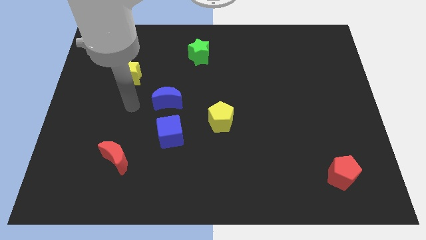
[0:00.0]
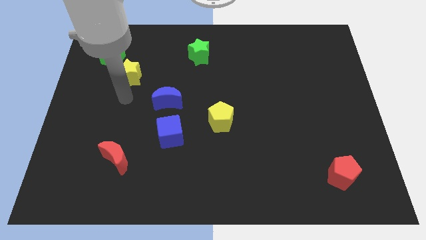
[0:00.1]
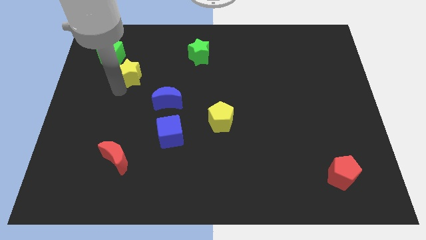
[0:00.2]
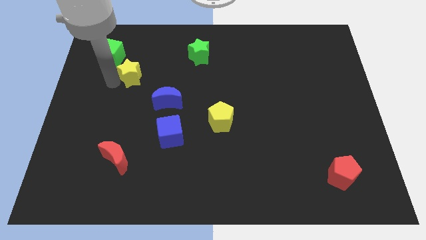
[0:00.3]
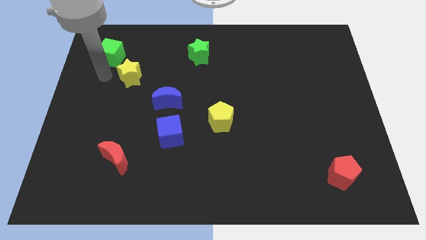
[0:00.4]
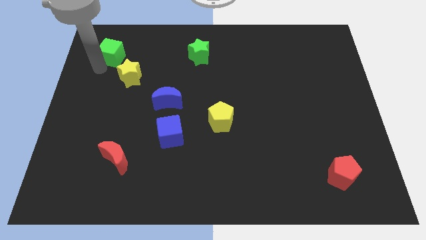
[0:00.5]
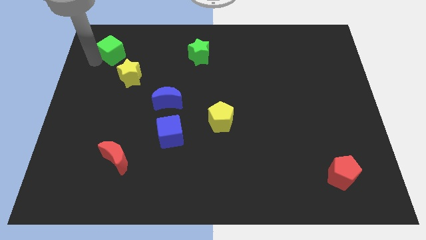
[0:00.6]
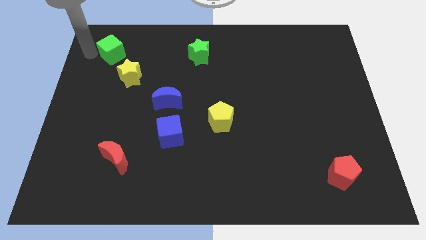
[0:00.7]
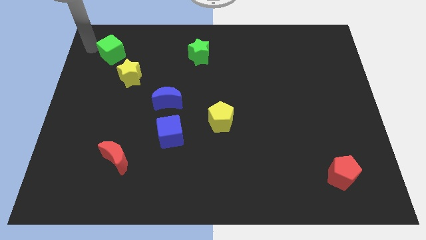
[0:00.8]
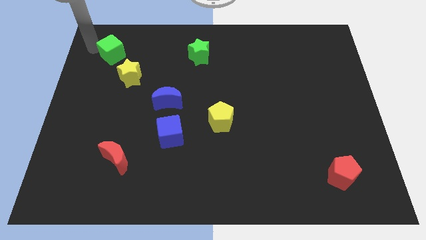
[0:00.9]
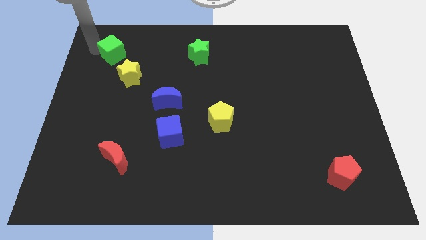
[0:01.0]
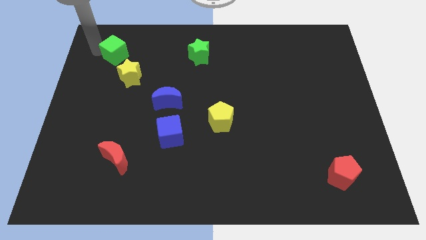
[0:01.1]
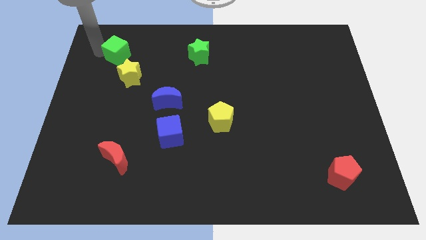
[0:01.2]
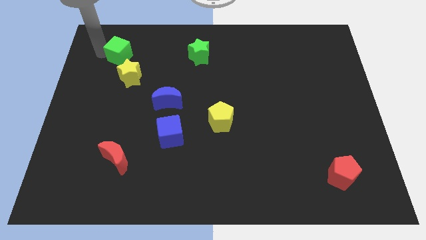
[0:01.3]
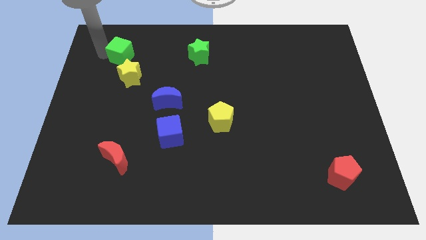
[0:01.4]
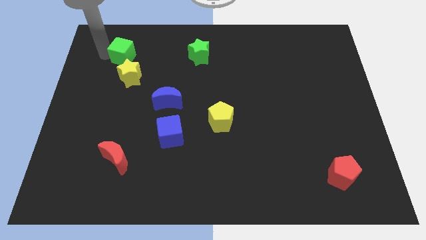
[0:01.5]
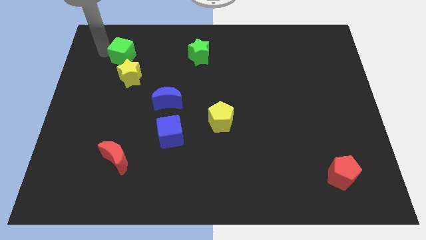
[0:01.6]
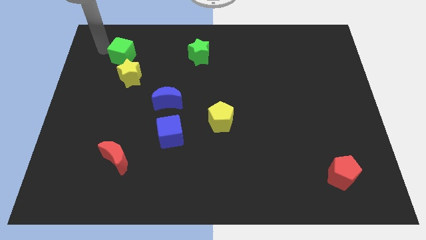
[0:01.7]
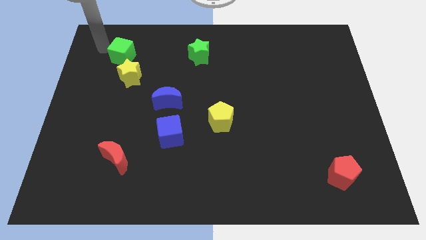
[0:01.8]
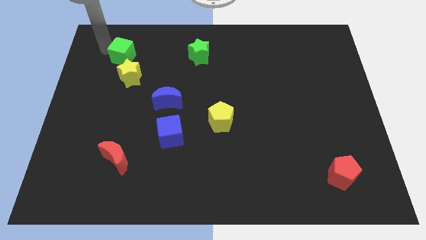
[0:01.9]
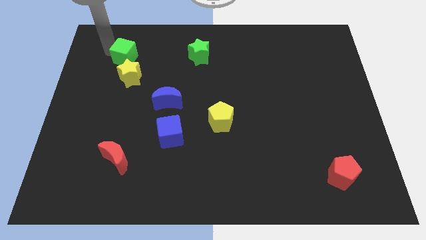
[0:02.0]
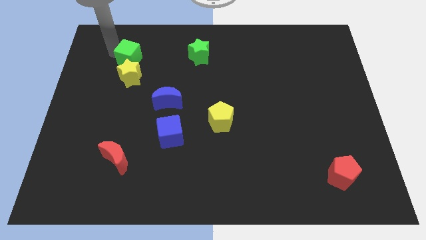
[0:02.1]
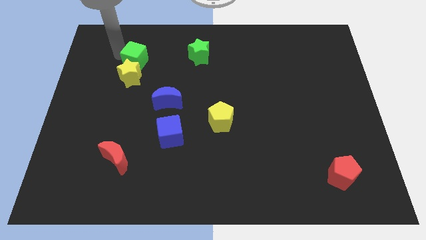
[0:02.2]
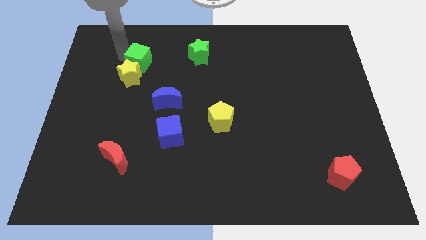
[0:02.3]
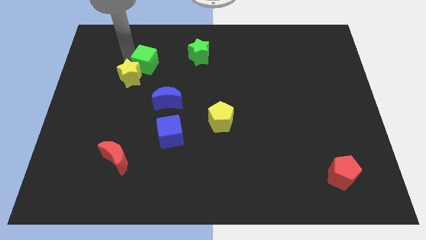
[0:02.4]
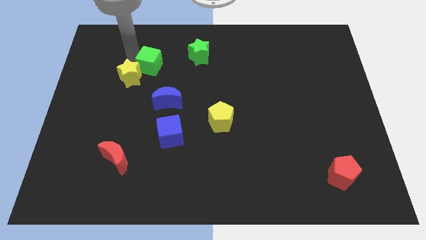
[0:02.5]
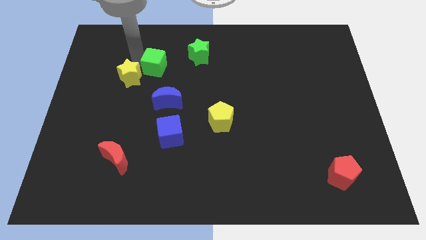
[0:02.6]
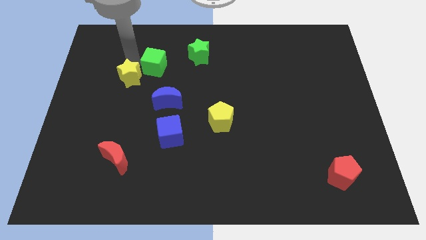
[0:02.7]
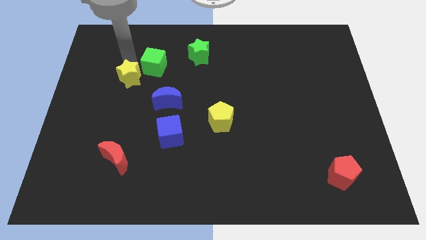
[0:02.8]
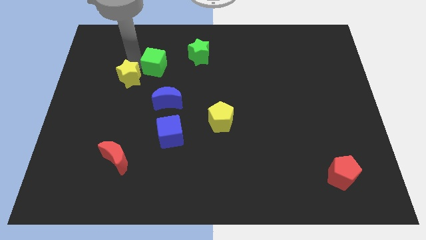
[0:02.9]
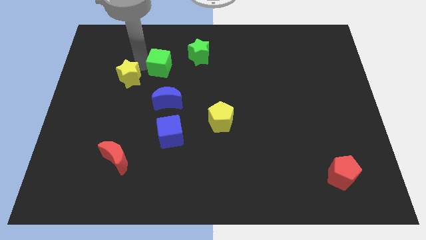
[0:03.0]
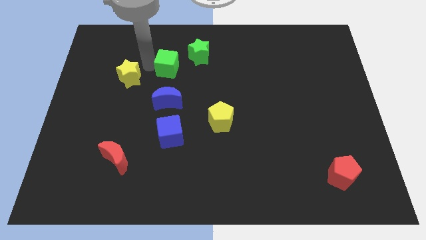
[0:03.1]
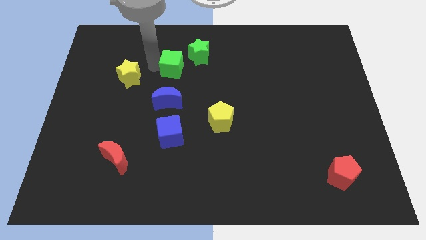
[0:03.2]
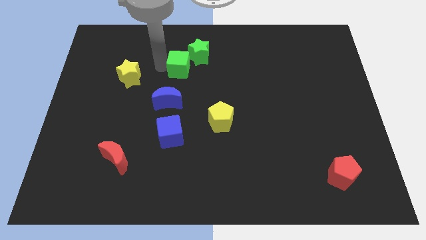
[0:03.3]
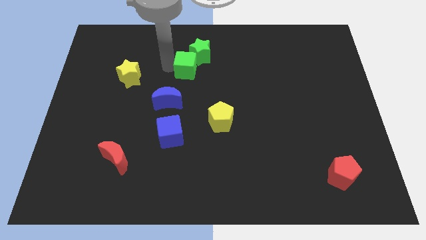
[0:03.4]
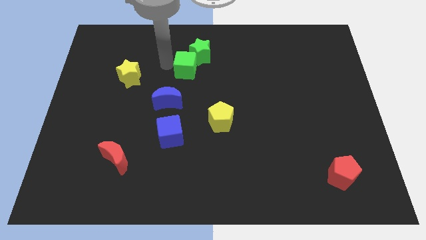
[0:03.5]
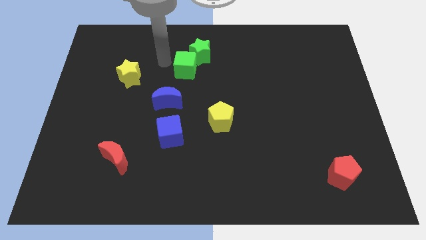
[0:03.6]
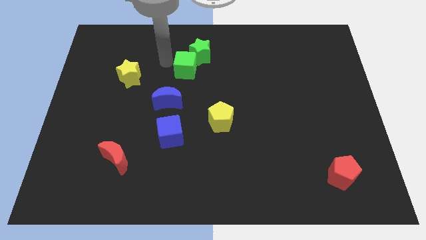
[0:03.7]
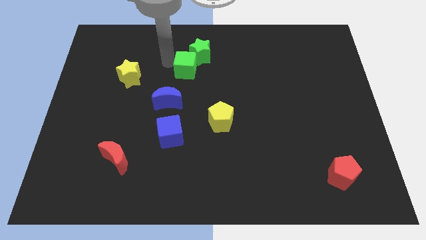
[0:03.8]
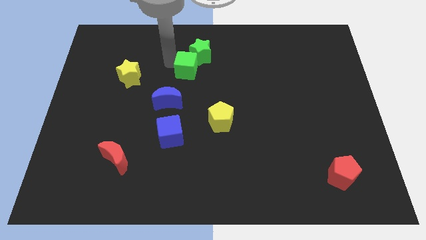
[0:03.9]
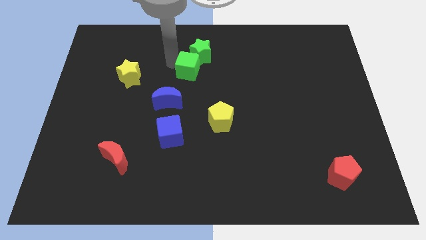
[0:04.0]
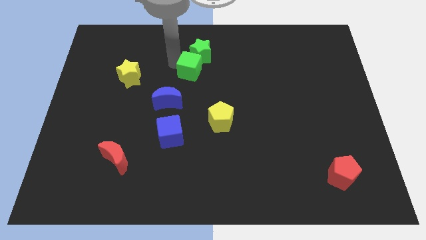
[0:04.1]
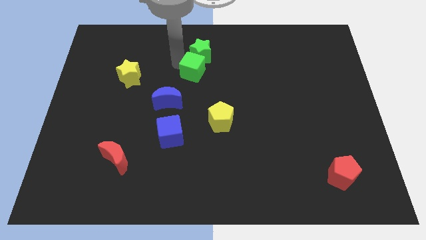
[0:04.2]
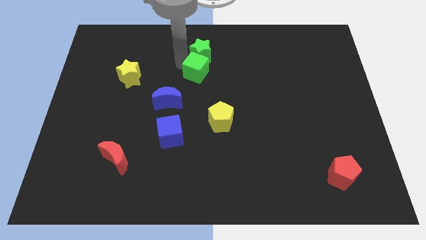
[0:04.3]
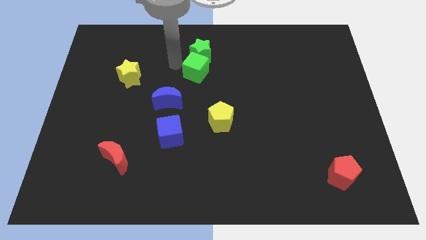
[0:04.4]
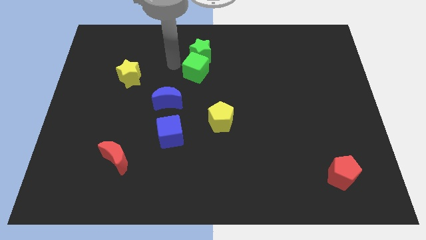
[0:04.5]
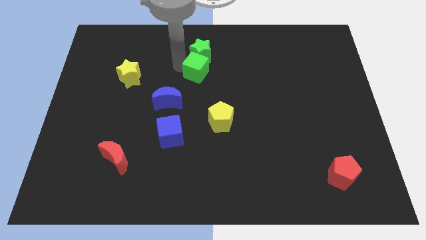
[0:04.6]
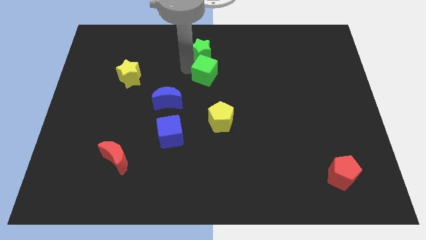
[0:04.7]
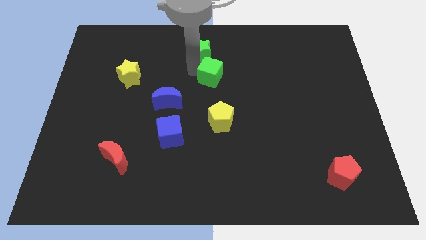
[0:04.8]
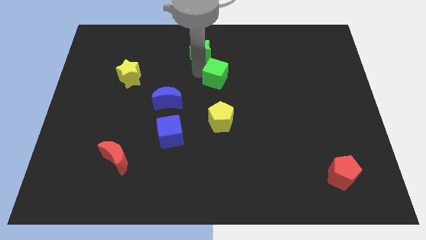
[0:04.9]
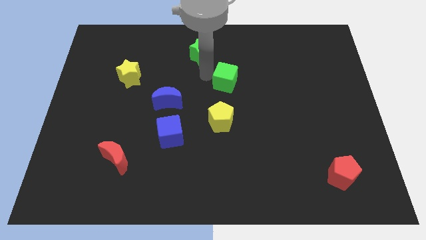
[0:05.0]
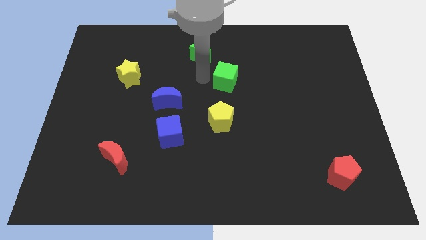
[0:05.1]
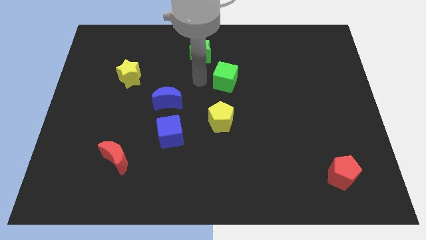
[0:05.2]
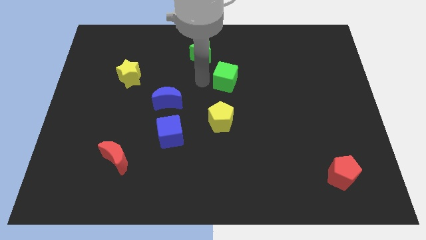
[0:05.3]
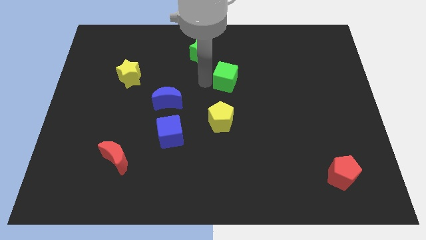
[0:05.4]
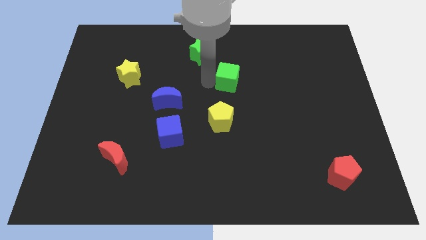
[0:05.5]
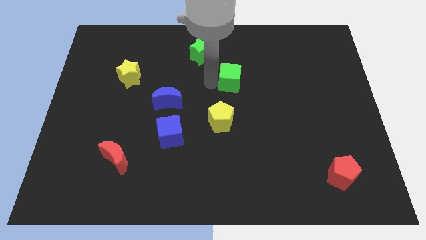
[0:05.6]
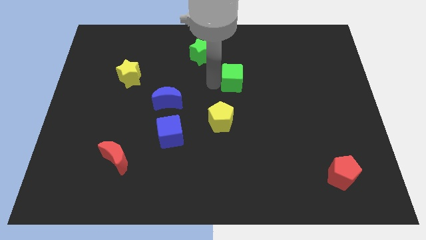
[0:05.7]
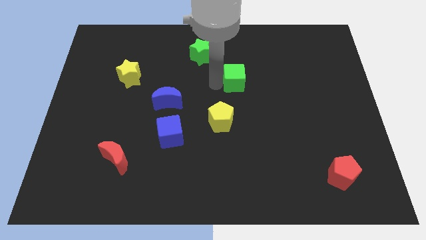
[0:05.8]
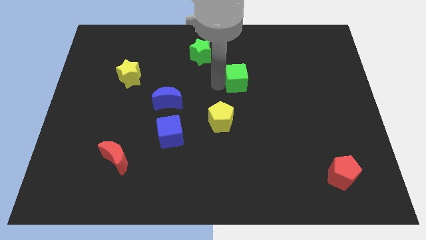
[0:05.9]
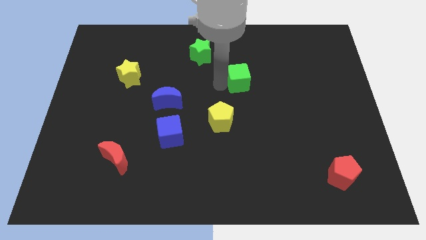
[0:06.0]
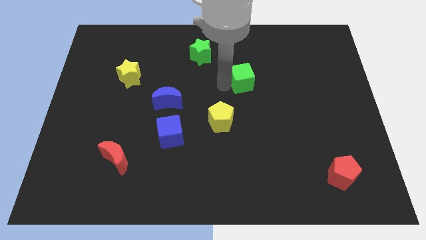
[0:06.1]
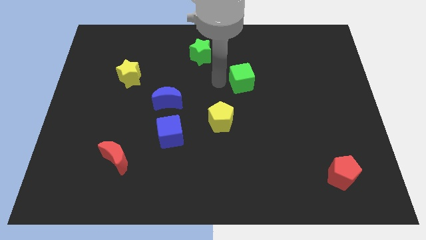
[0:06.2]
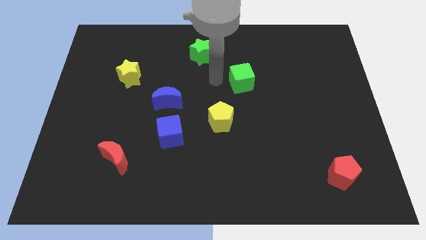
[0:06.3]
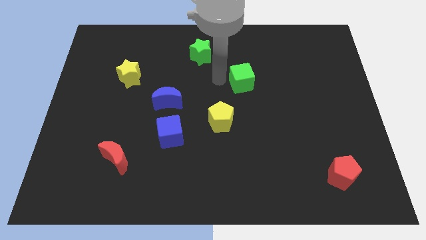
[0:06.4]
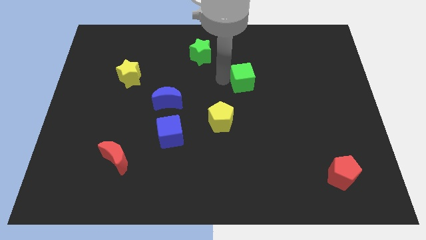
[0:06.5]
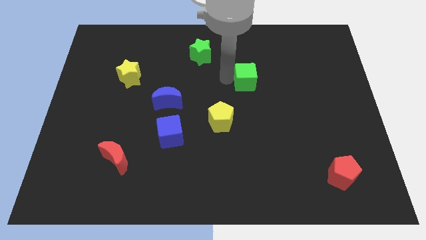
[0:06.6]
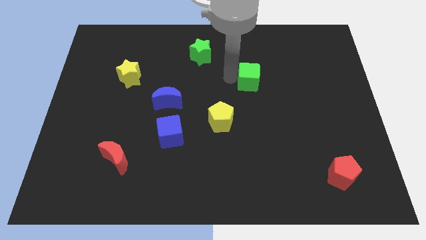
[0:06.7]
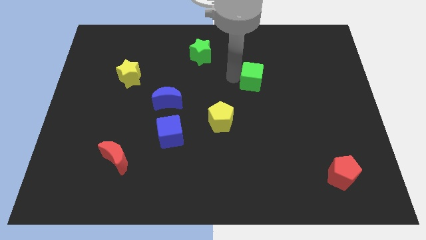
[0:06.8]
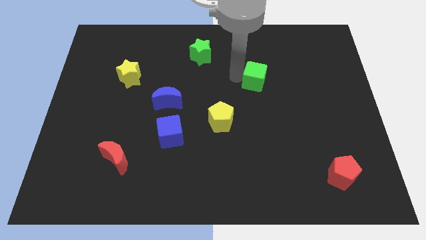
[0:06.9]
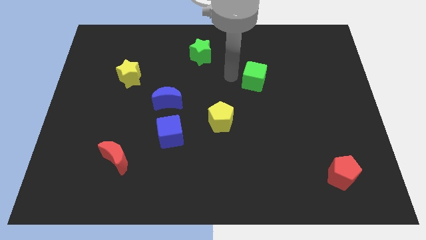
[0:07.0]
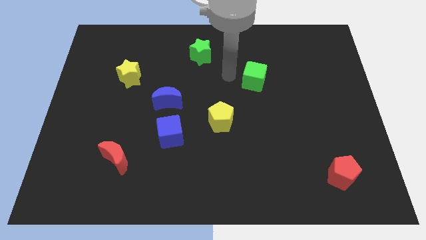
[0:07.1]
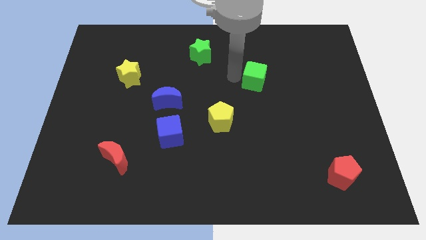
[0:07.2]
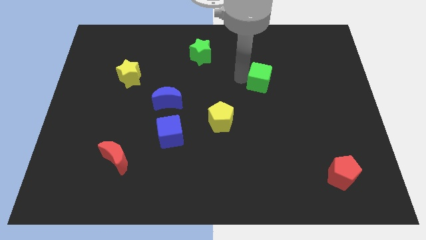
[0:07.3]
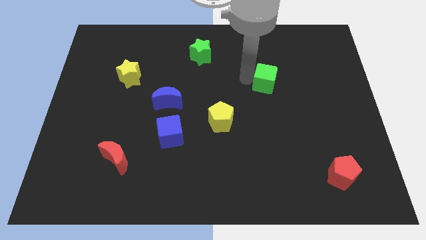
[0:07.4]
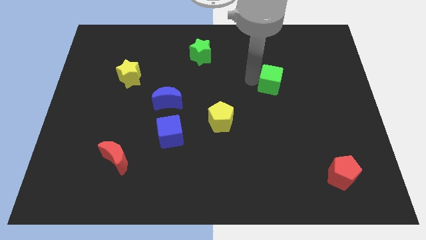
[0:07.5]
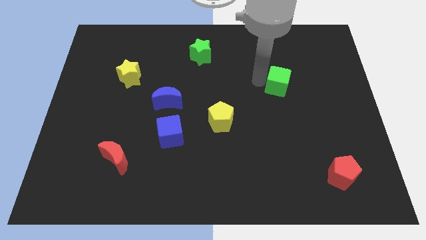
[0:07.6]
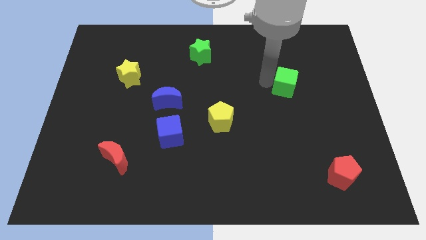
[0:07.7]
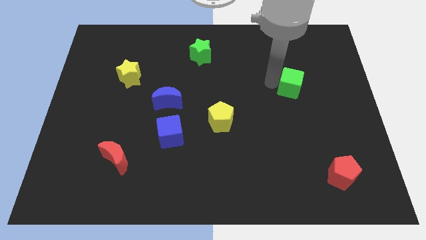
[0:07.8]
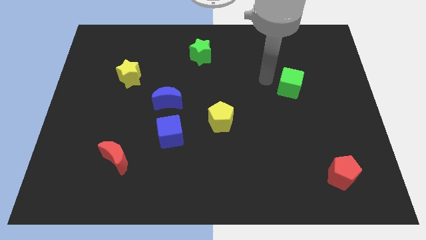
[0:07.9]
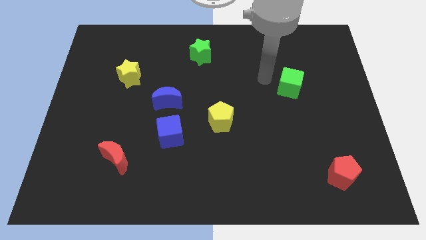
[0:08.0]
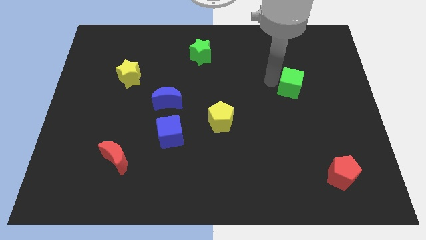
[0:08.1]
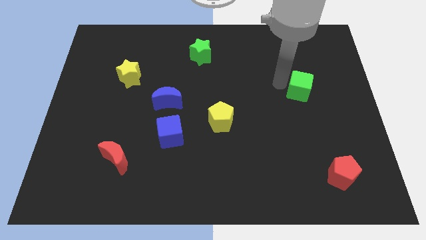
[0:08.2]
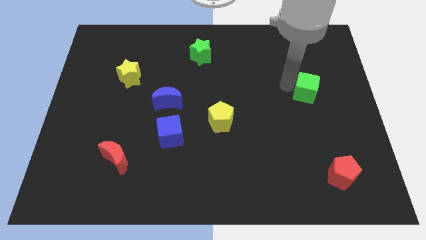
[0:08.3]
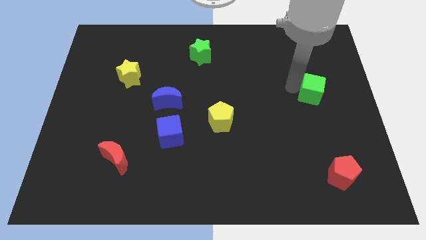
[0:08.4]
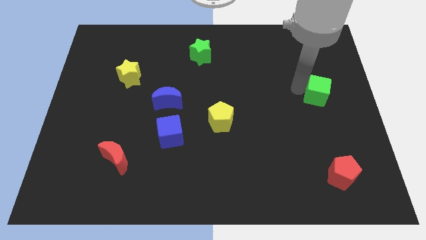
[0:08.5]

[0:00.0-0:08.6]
put the green cube to the right side of the board
